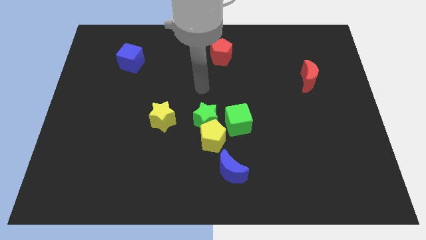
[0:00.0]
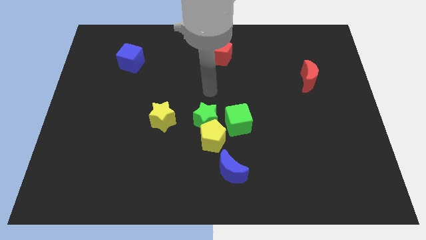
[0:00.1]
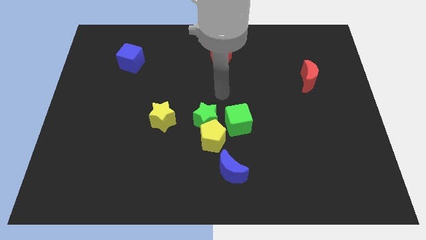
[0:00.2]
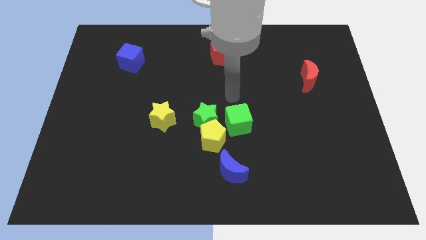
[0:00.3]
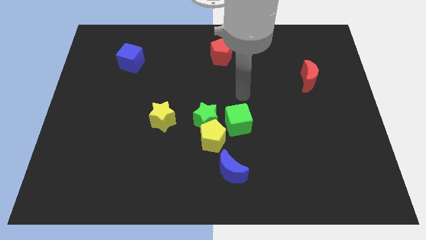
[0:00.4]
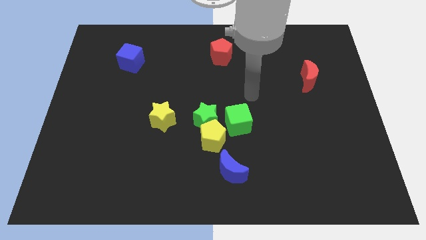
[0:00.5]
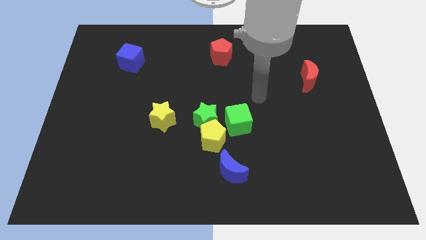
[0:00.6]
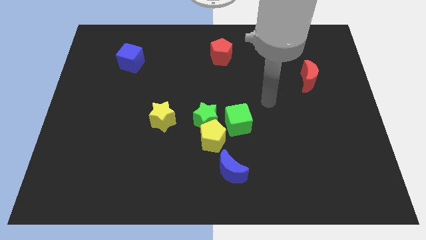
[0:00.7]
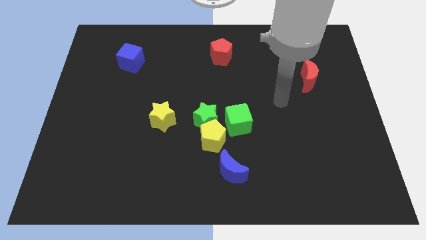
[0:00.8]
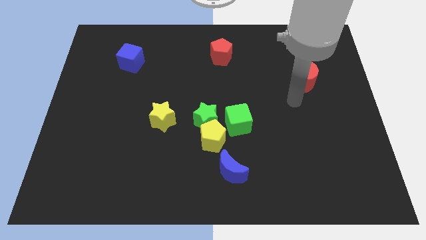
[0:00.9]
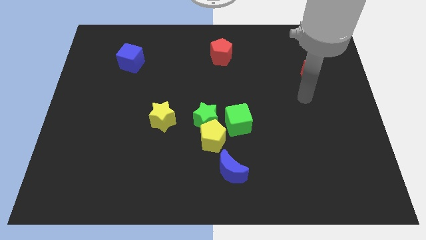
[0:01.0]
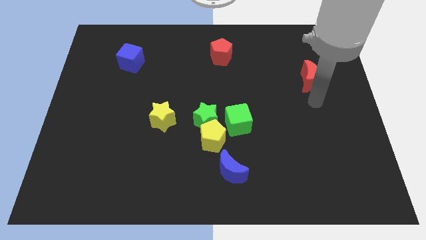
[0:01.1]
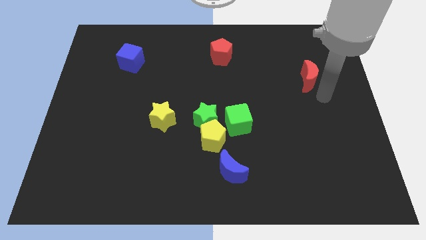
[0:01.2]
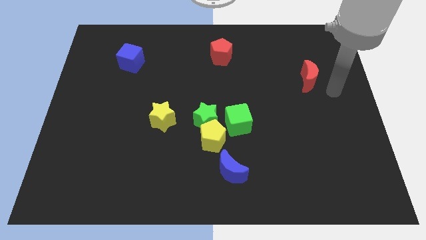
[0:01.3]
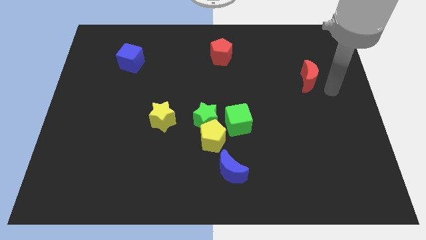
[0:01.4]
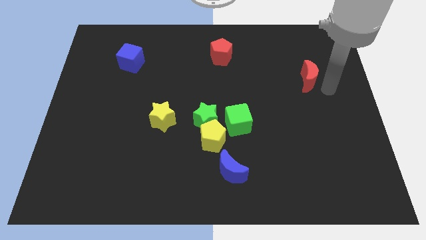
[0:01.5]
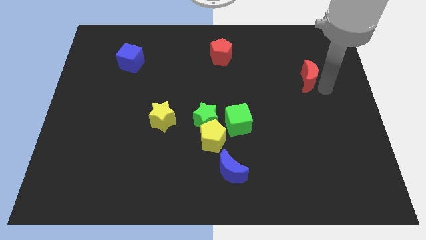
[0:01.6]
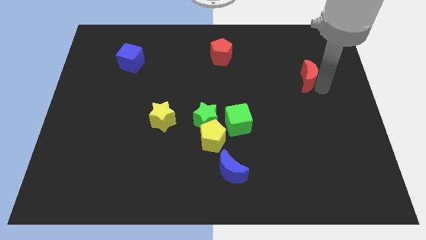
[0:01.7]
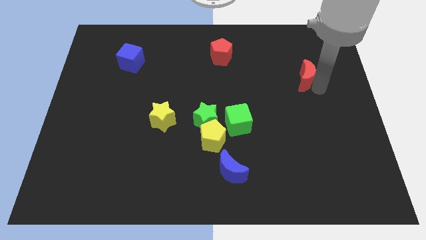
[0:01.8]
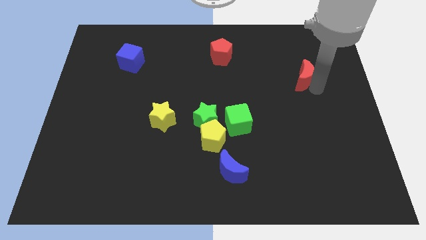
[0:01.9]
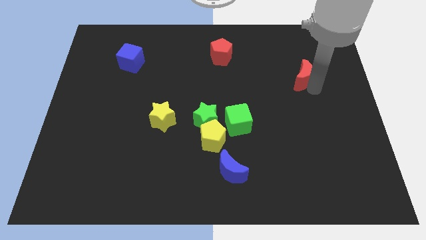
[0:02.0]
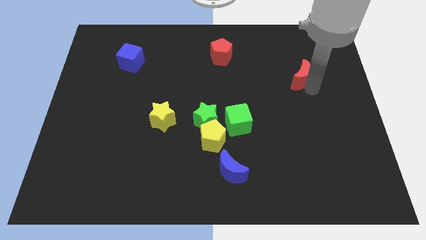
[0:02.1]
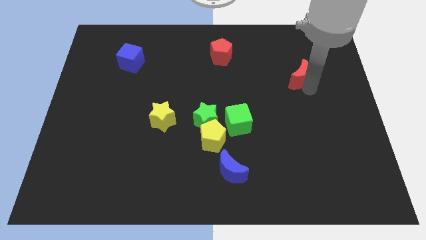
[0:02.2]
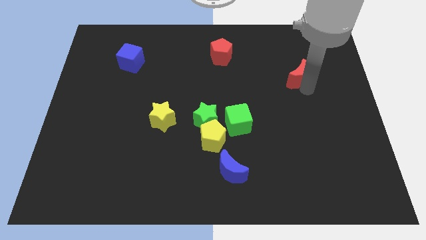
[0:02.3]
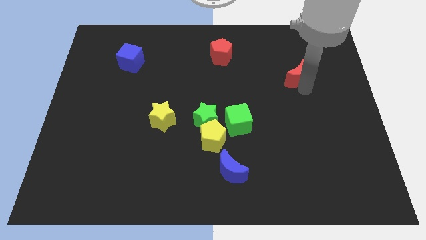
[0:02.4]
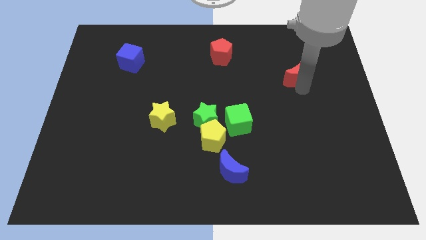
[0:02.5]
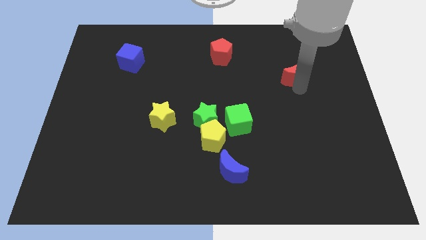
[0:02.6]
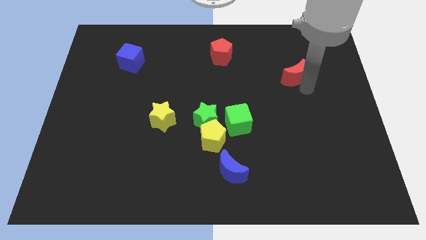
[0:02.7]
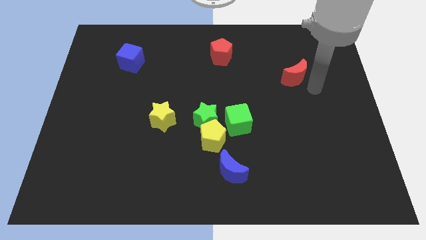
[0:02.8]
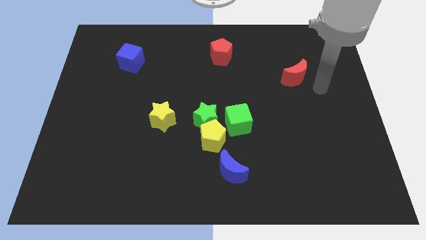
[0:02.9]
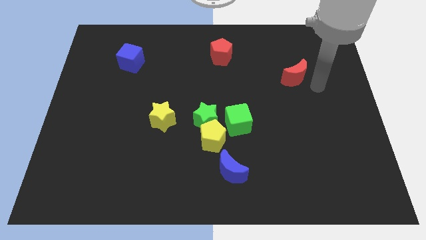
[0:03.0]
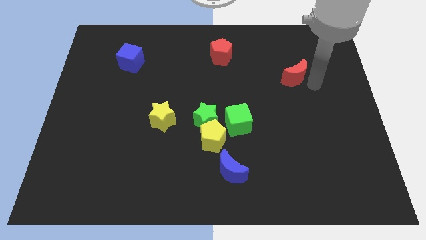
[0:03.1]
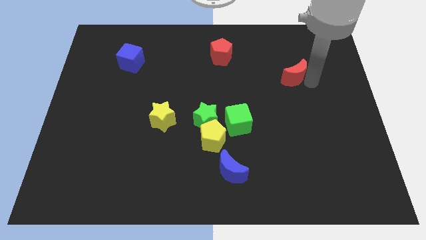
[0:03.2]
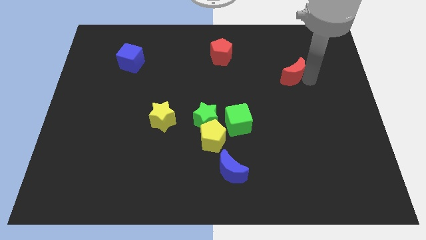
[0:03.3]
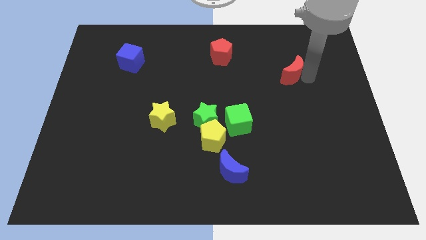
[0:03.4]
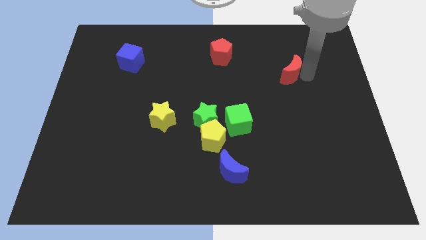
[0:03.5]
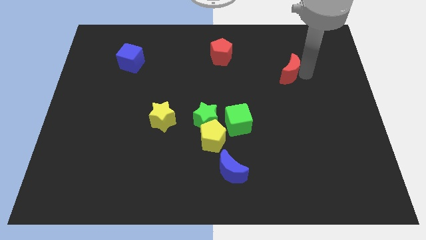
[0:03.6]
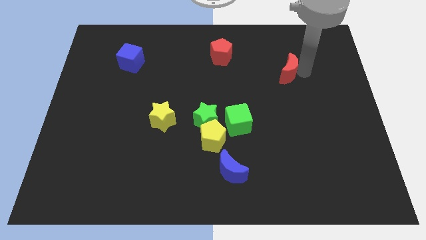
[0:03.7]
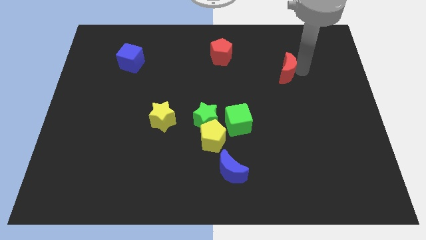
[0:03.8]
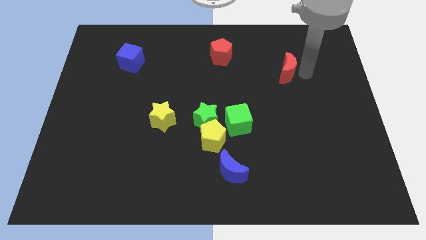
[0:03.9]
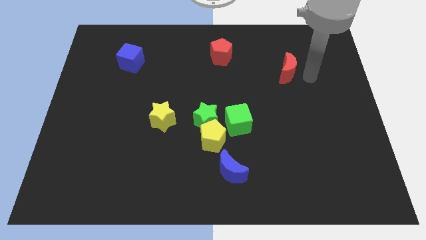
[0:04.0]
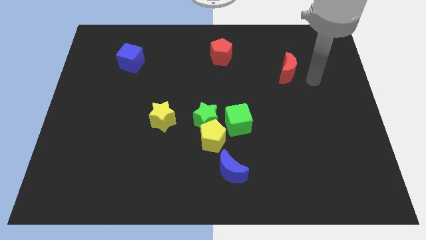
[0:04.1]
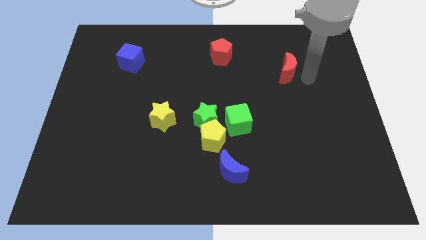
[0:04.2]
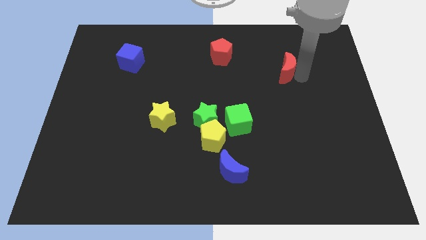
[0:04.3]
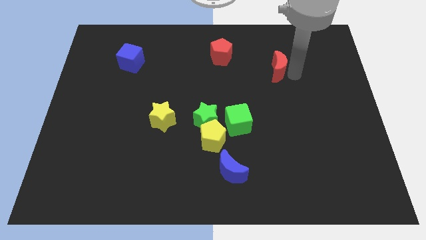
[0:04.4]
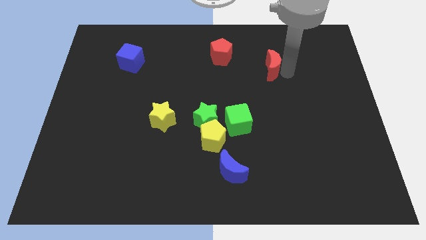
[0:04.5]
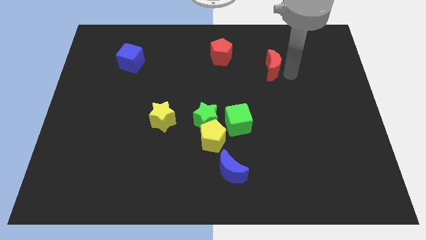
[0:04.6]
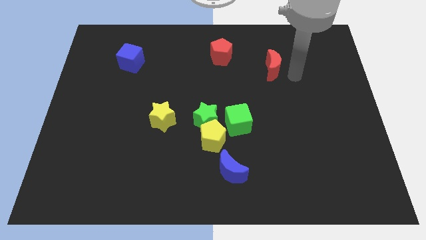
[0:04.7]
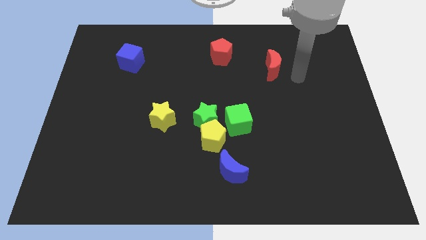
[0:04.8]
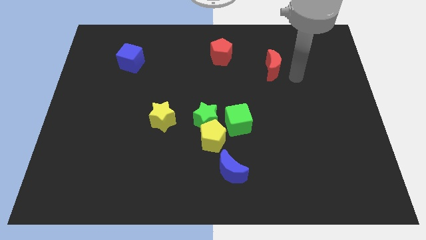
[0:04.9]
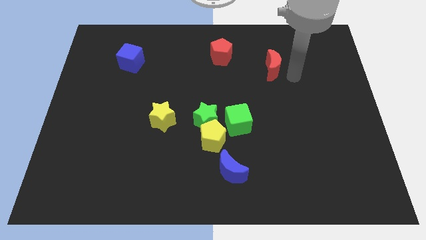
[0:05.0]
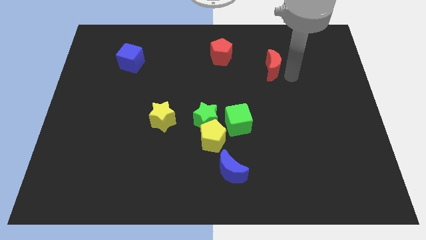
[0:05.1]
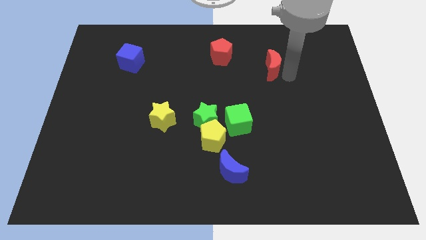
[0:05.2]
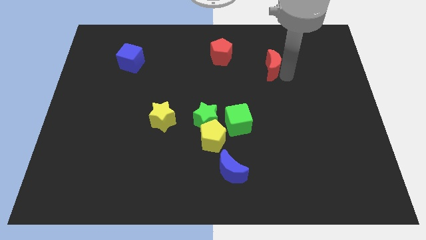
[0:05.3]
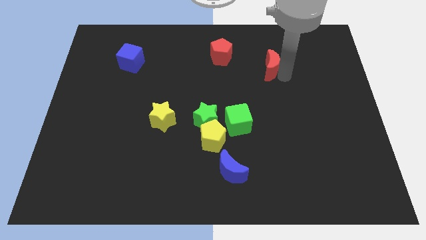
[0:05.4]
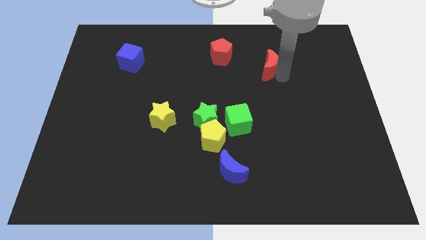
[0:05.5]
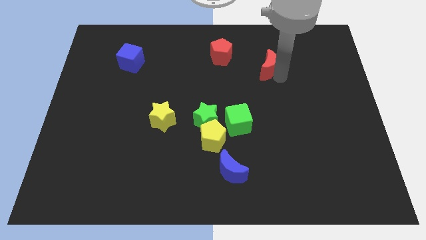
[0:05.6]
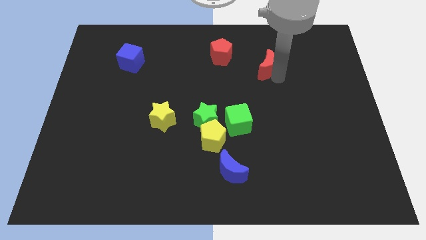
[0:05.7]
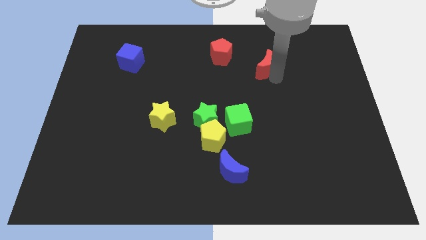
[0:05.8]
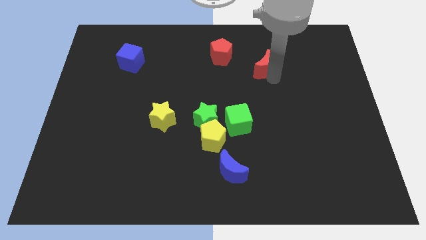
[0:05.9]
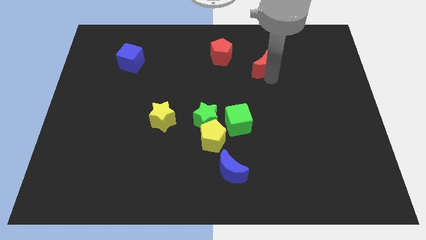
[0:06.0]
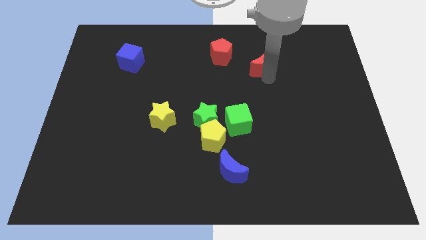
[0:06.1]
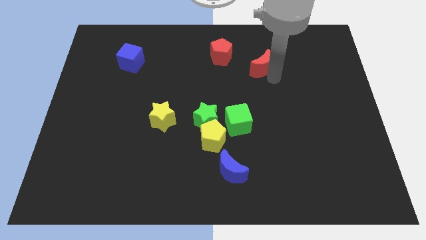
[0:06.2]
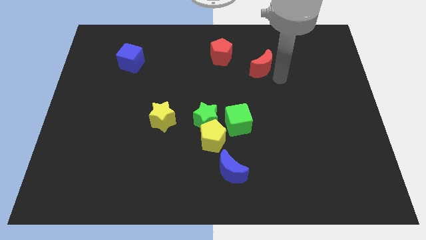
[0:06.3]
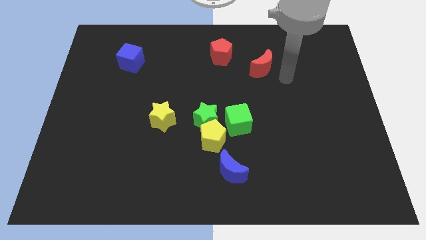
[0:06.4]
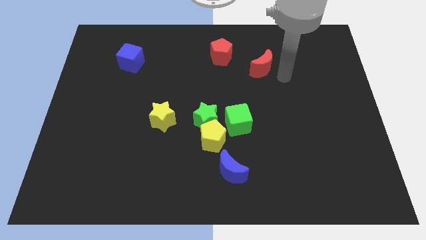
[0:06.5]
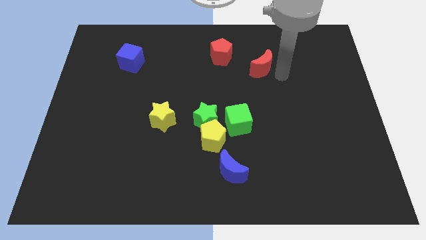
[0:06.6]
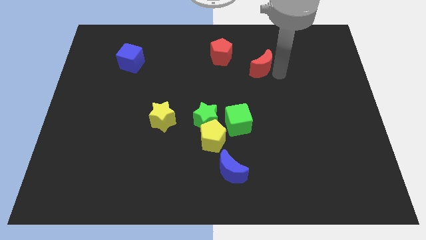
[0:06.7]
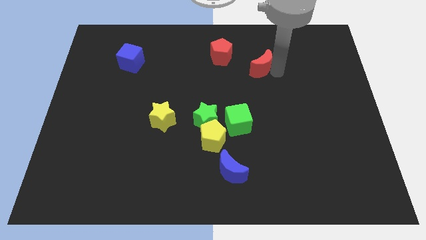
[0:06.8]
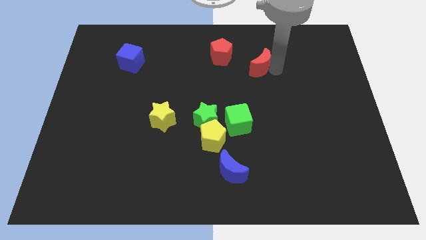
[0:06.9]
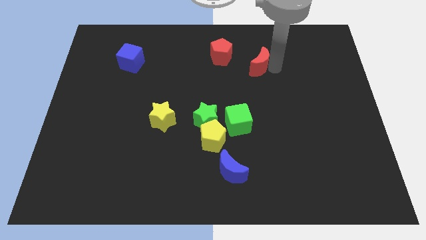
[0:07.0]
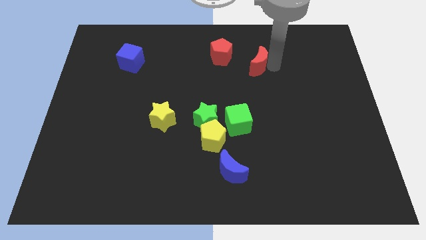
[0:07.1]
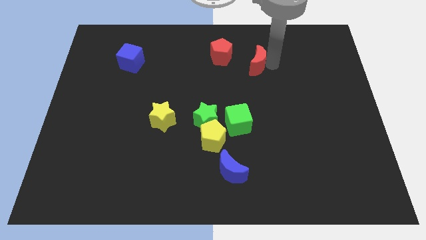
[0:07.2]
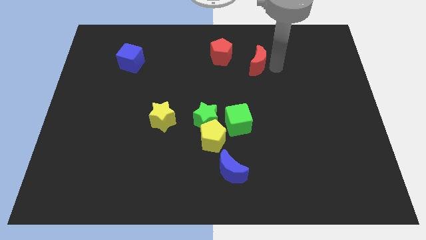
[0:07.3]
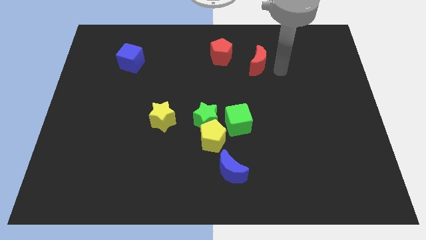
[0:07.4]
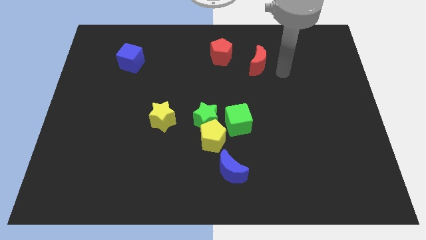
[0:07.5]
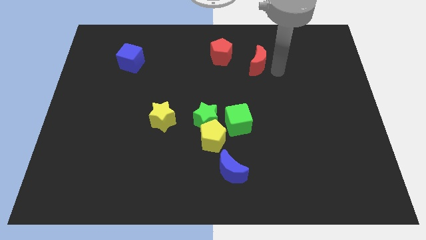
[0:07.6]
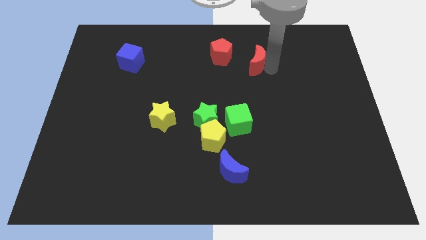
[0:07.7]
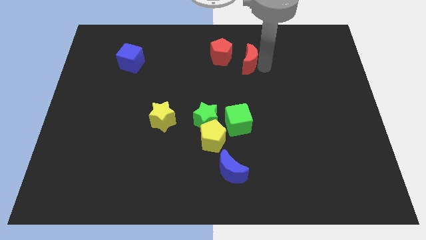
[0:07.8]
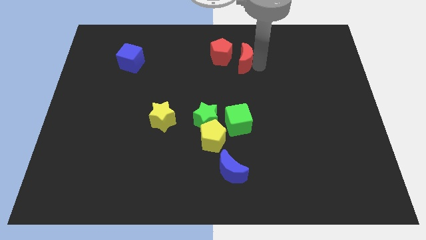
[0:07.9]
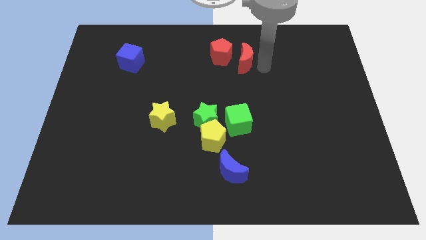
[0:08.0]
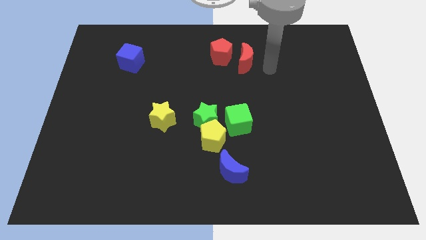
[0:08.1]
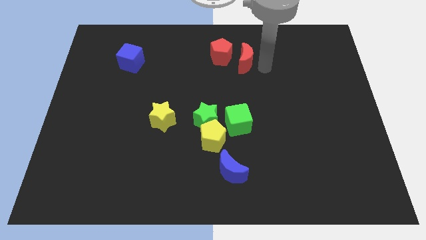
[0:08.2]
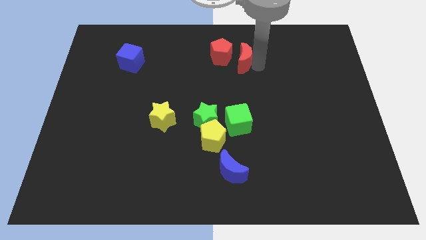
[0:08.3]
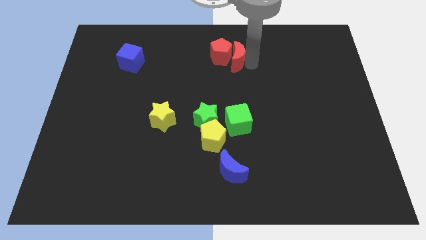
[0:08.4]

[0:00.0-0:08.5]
put the red moon towards the red pentagon
